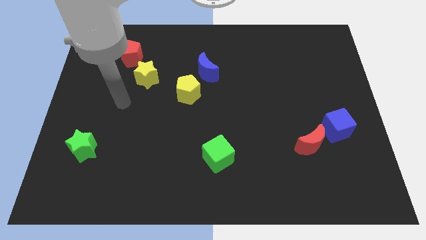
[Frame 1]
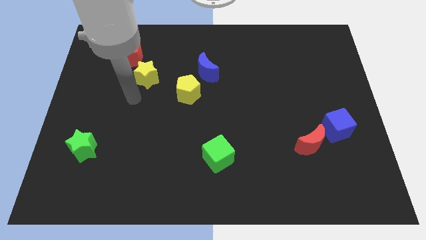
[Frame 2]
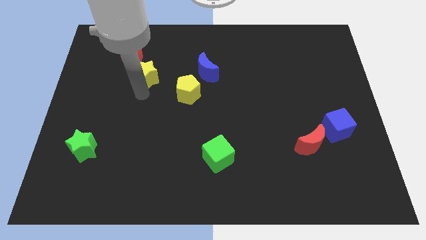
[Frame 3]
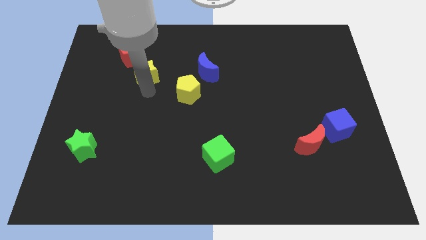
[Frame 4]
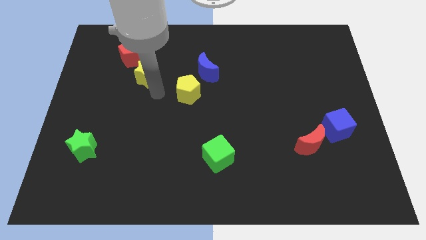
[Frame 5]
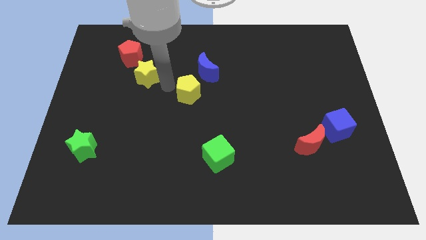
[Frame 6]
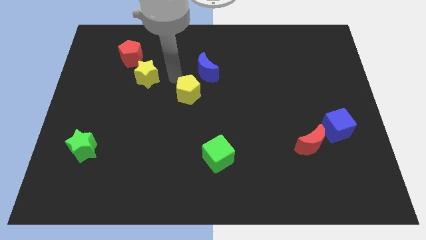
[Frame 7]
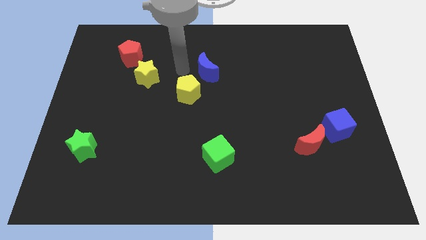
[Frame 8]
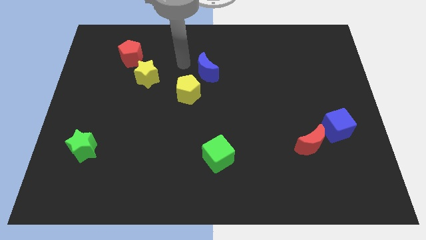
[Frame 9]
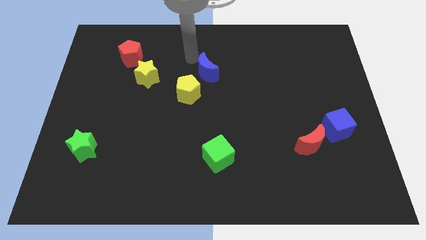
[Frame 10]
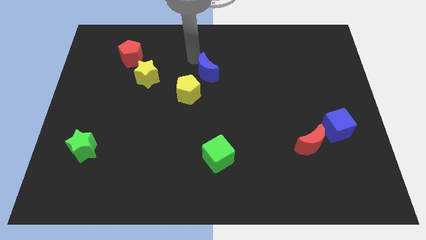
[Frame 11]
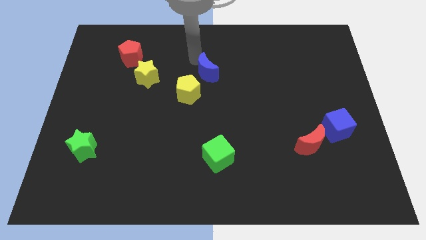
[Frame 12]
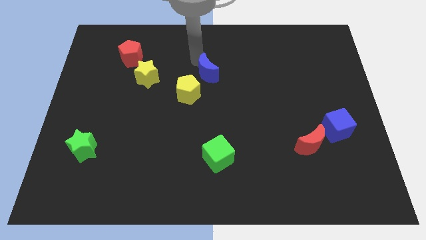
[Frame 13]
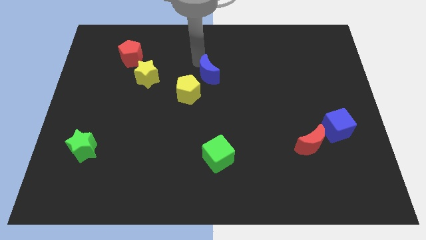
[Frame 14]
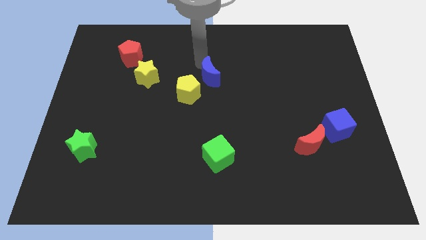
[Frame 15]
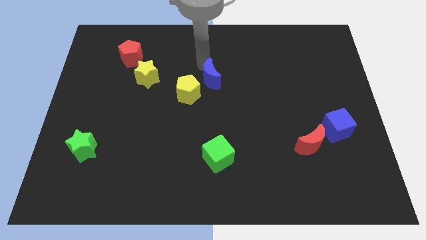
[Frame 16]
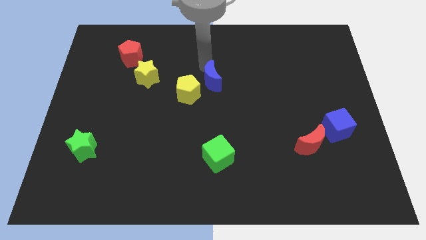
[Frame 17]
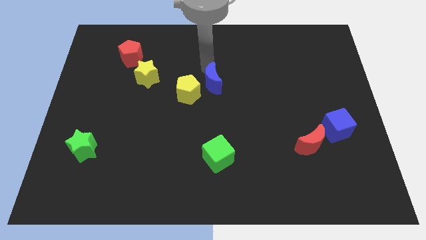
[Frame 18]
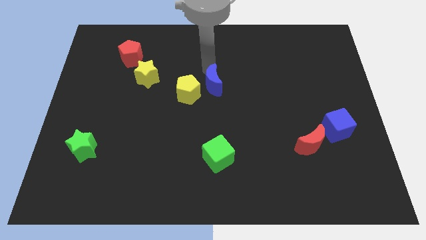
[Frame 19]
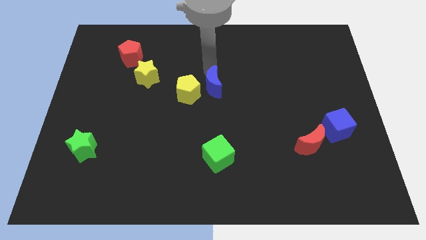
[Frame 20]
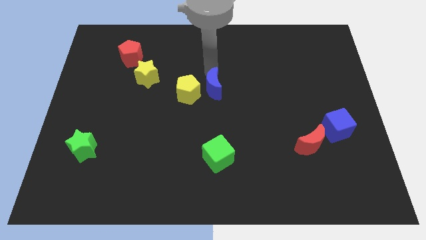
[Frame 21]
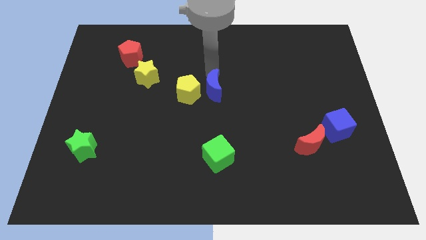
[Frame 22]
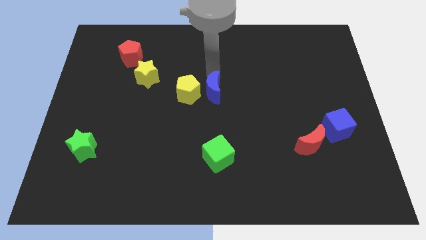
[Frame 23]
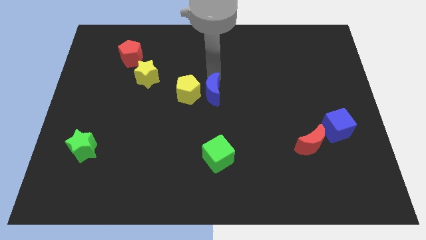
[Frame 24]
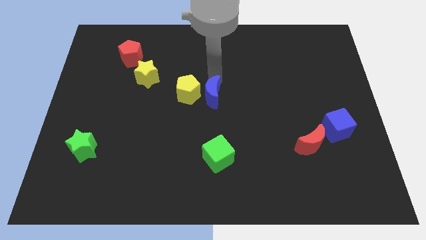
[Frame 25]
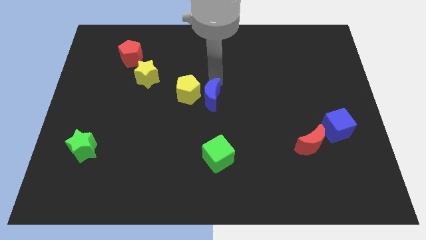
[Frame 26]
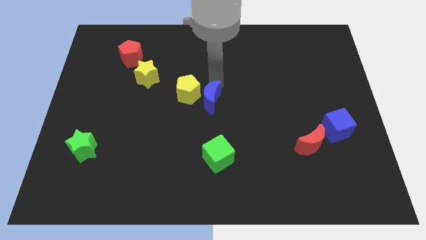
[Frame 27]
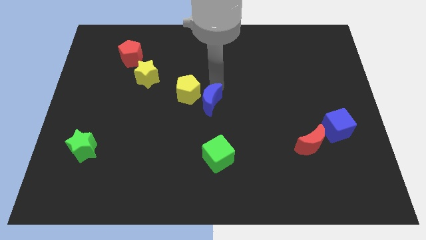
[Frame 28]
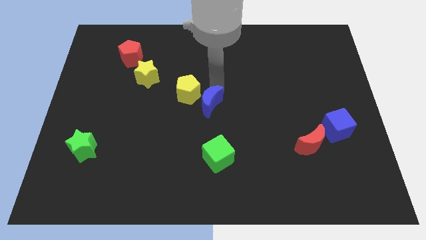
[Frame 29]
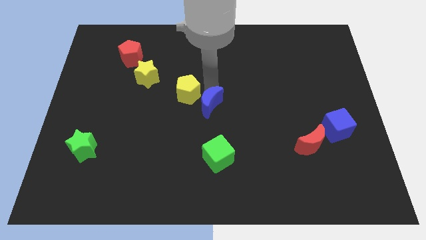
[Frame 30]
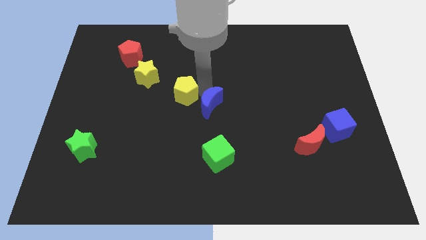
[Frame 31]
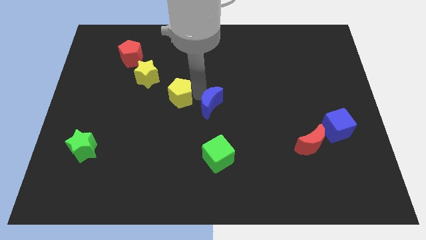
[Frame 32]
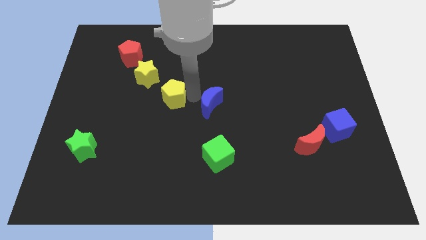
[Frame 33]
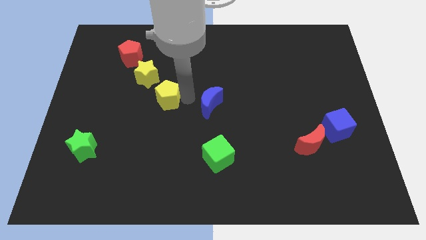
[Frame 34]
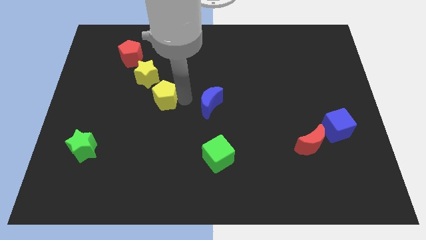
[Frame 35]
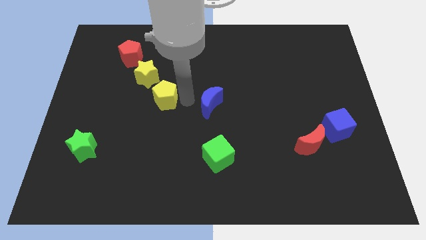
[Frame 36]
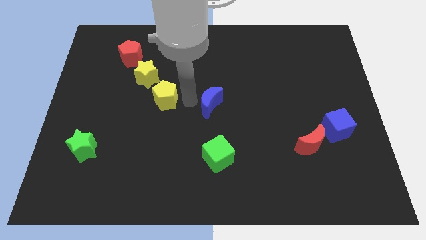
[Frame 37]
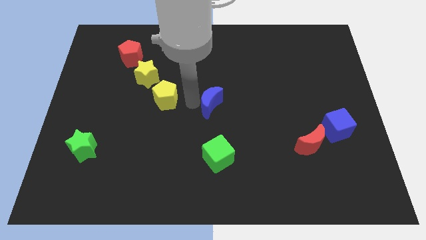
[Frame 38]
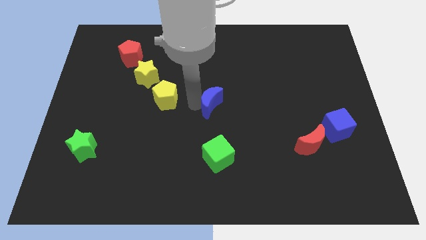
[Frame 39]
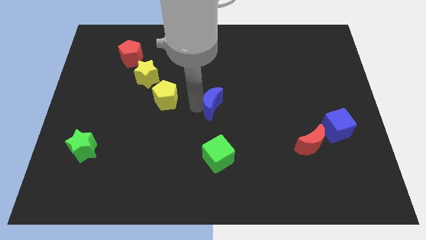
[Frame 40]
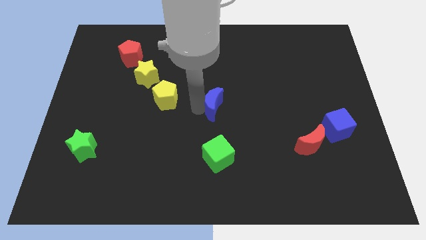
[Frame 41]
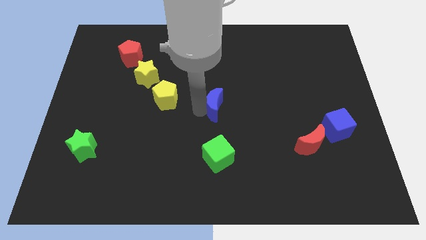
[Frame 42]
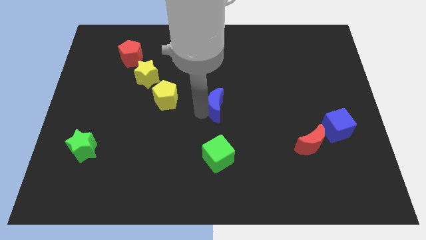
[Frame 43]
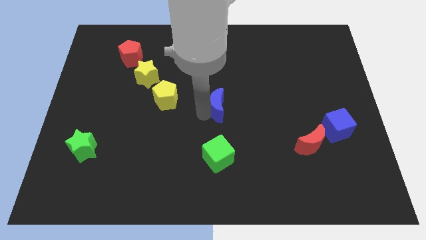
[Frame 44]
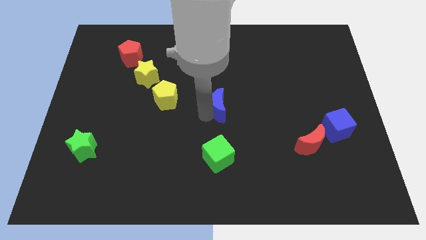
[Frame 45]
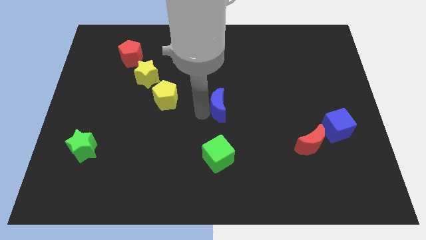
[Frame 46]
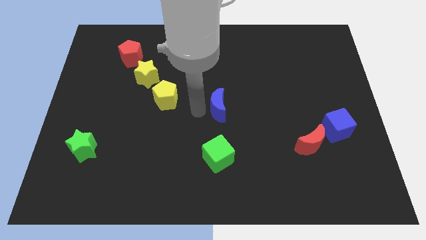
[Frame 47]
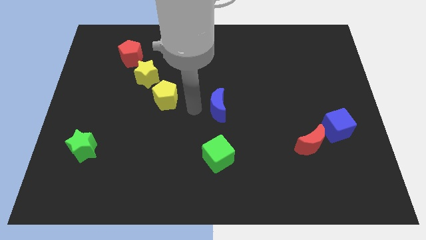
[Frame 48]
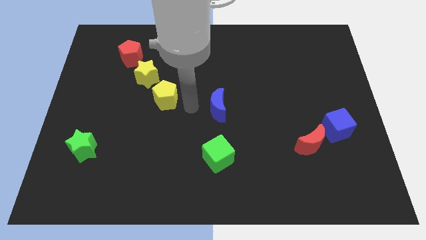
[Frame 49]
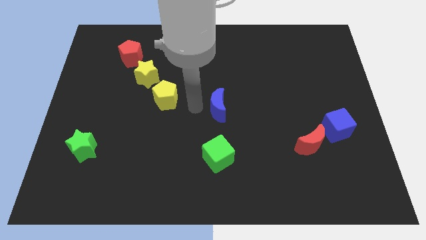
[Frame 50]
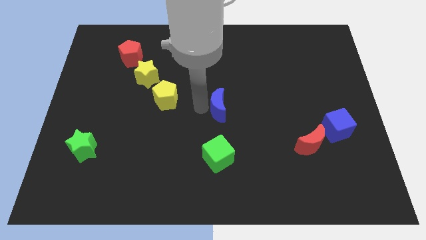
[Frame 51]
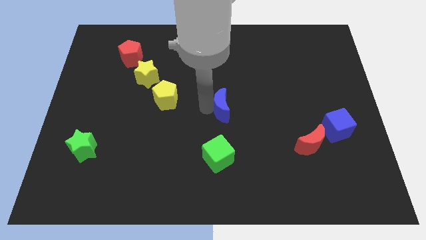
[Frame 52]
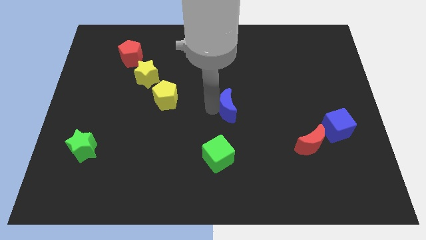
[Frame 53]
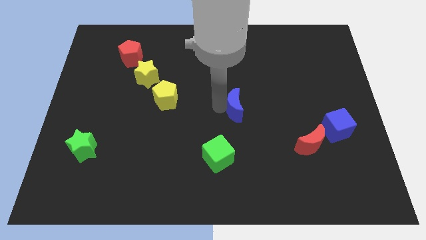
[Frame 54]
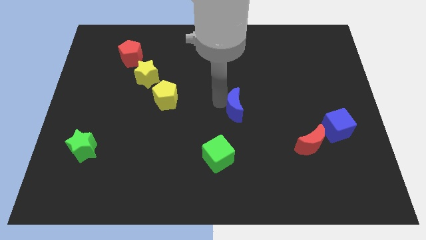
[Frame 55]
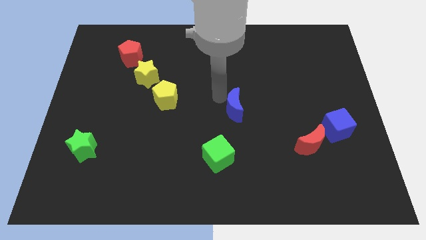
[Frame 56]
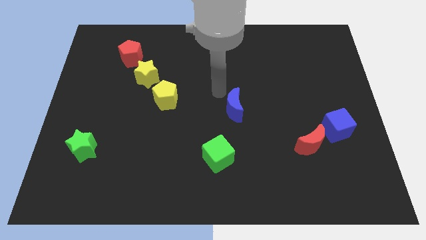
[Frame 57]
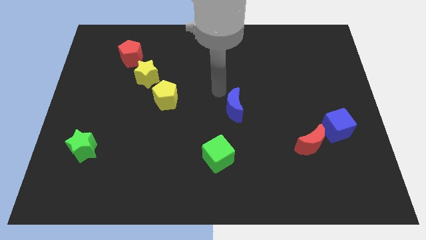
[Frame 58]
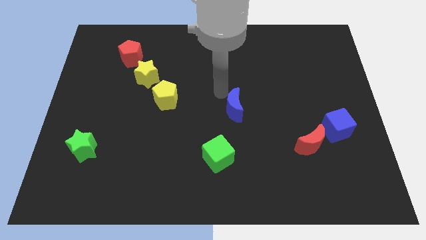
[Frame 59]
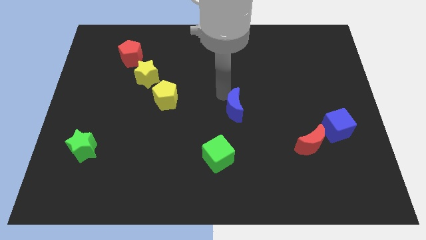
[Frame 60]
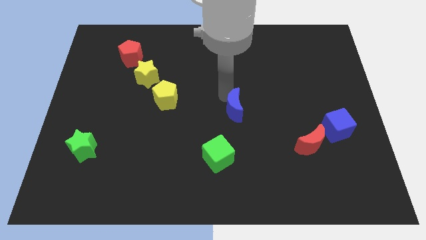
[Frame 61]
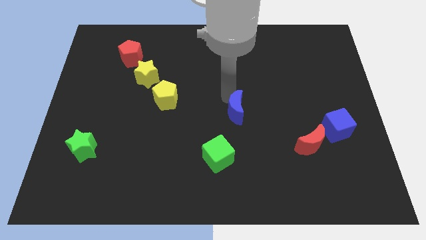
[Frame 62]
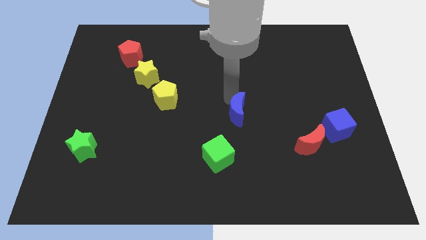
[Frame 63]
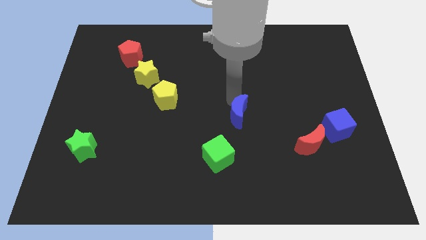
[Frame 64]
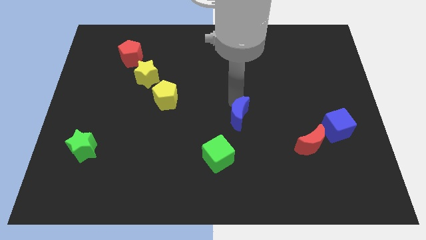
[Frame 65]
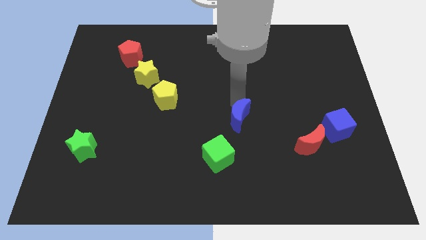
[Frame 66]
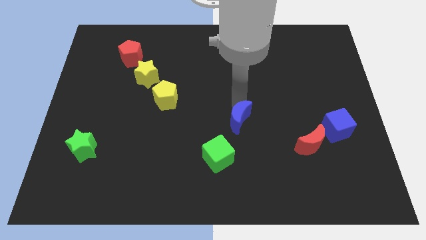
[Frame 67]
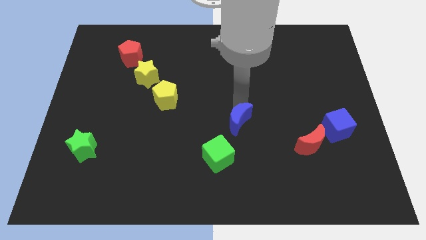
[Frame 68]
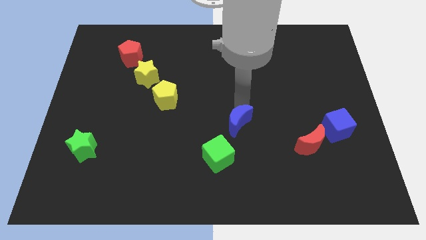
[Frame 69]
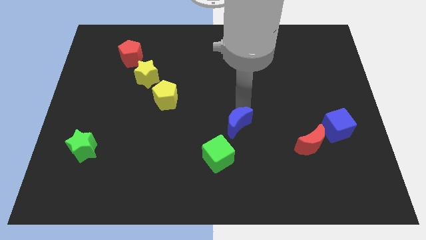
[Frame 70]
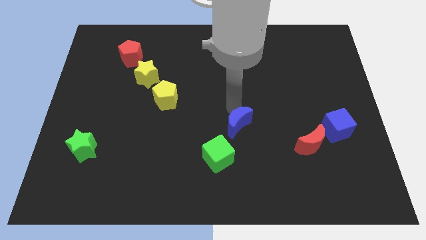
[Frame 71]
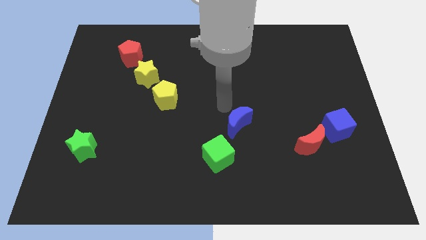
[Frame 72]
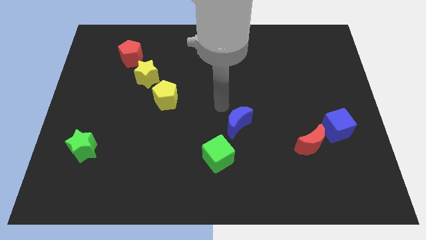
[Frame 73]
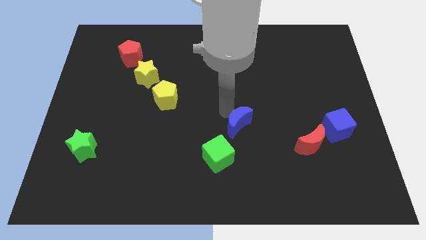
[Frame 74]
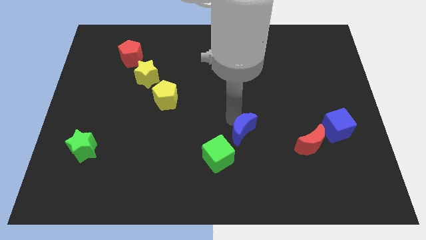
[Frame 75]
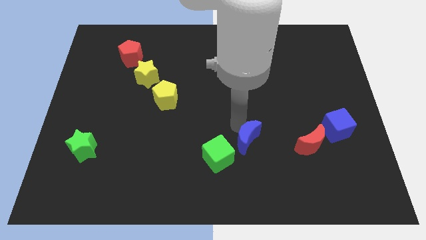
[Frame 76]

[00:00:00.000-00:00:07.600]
move the blue moon right of the green cube
